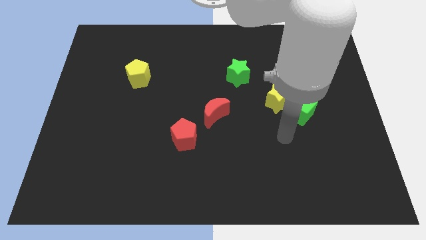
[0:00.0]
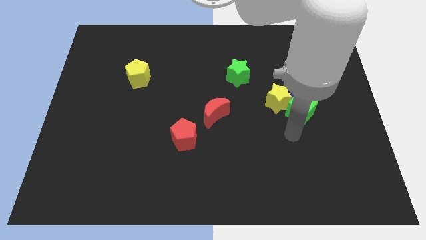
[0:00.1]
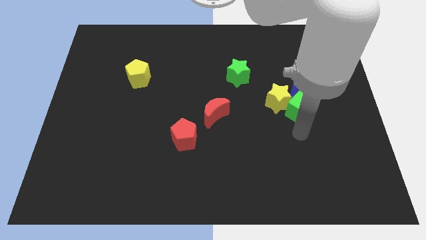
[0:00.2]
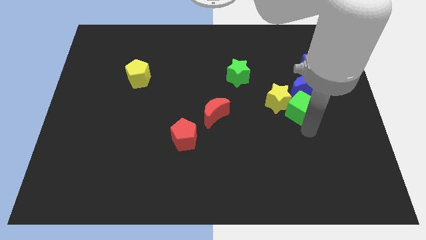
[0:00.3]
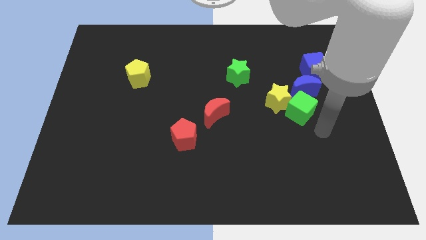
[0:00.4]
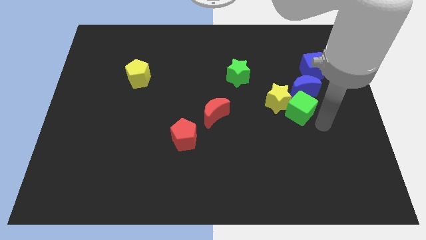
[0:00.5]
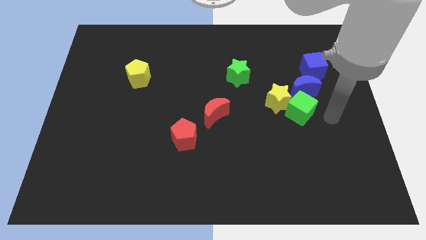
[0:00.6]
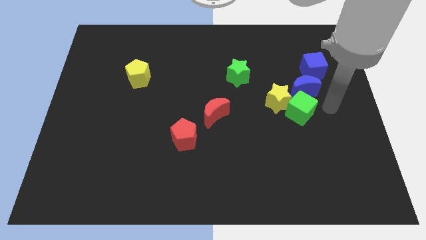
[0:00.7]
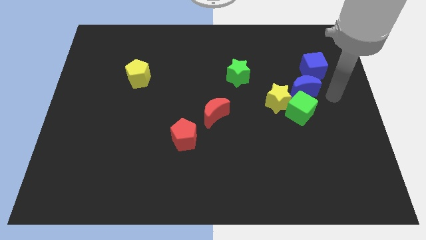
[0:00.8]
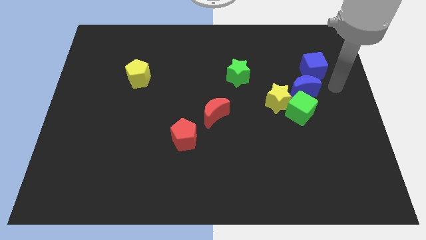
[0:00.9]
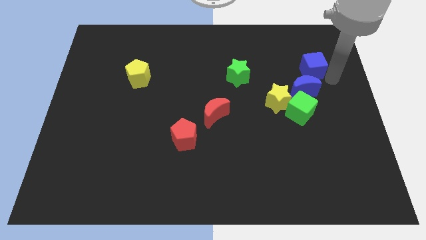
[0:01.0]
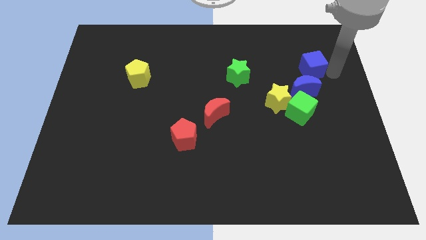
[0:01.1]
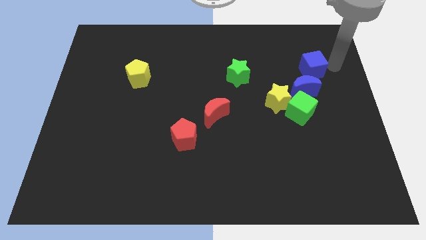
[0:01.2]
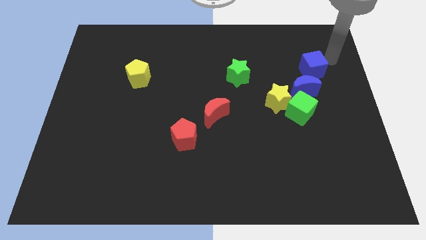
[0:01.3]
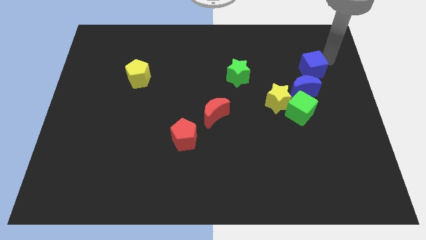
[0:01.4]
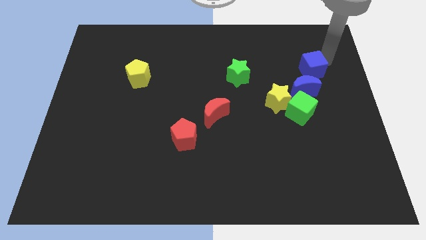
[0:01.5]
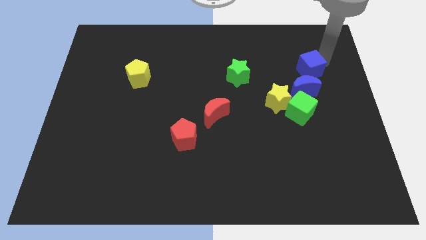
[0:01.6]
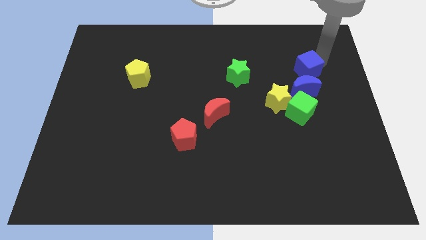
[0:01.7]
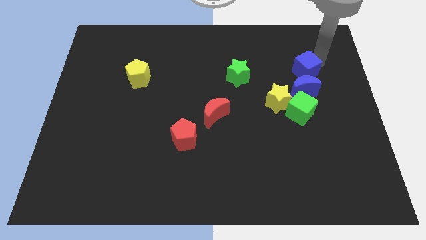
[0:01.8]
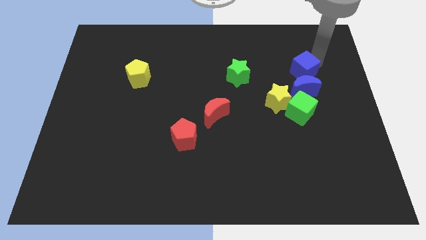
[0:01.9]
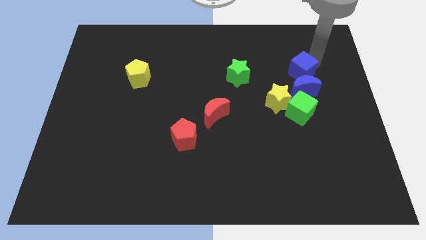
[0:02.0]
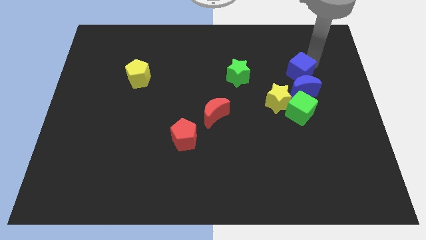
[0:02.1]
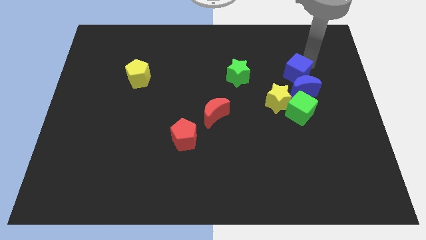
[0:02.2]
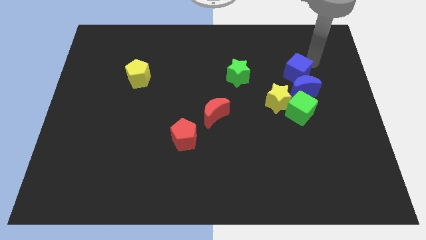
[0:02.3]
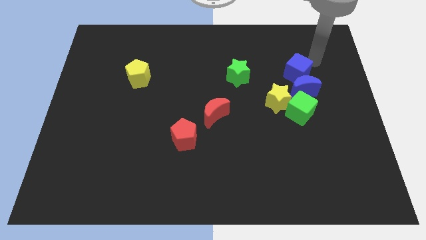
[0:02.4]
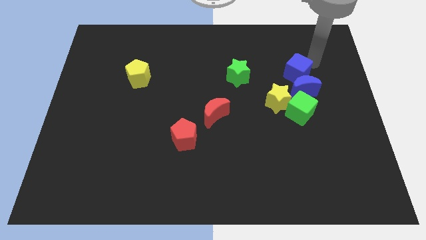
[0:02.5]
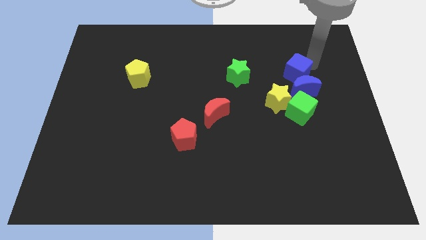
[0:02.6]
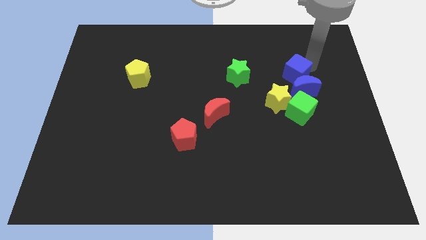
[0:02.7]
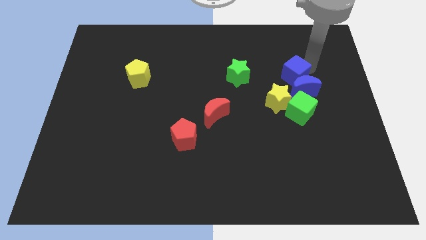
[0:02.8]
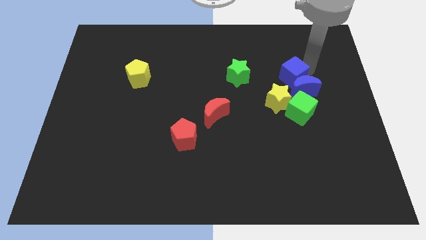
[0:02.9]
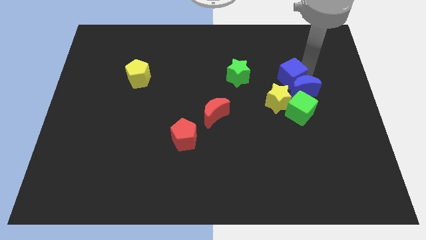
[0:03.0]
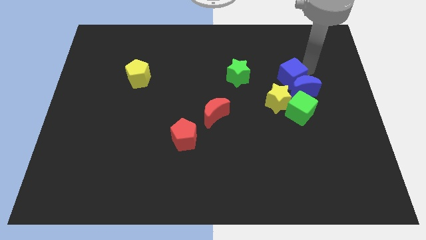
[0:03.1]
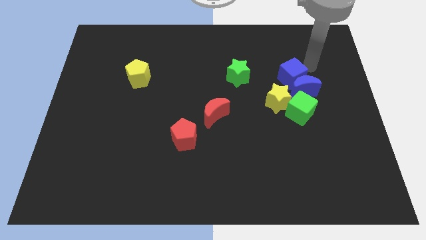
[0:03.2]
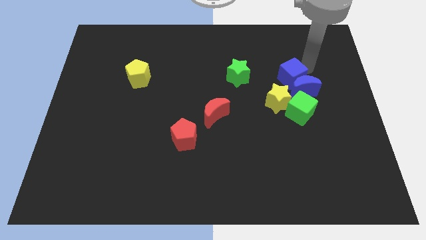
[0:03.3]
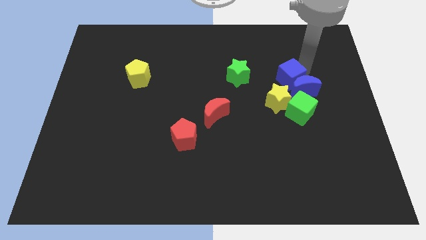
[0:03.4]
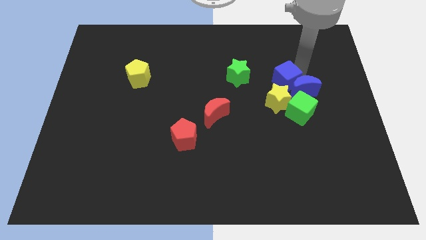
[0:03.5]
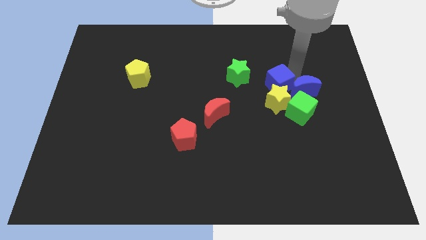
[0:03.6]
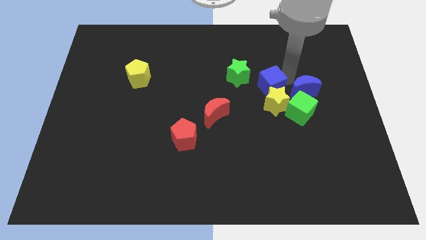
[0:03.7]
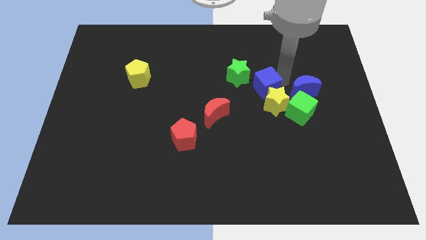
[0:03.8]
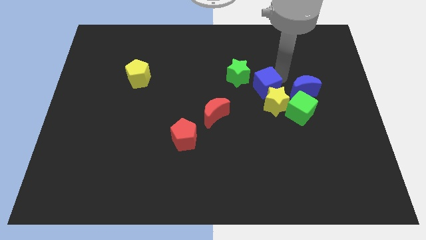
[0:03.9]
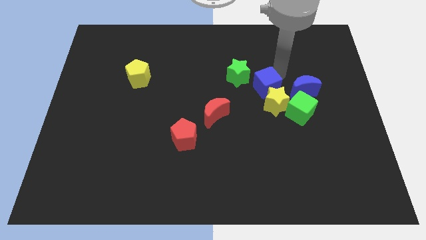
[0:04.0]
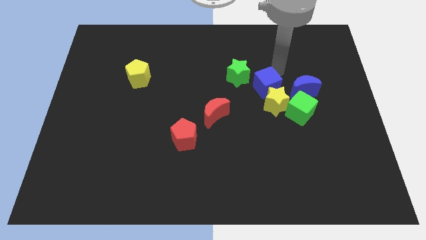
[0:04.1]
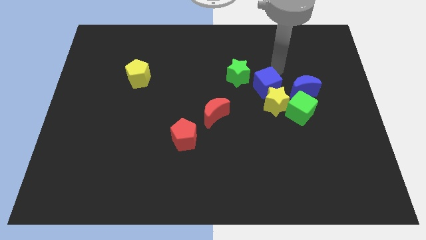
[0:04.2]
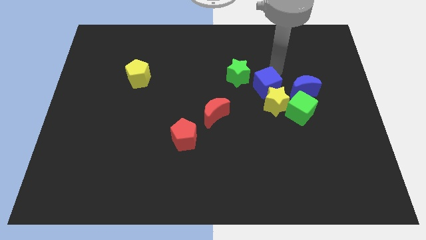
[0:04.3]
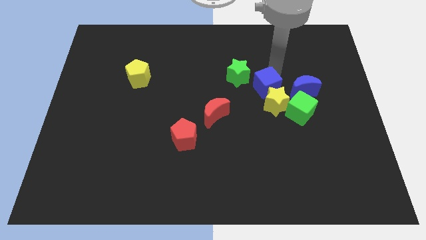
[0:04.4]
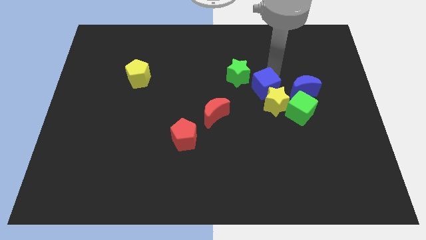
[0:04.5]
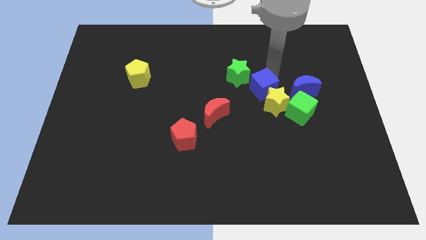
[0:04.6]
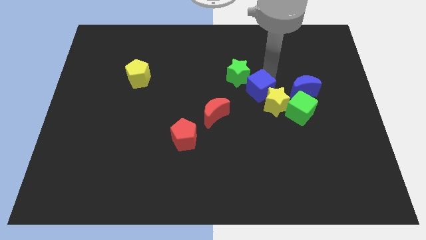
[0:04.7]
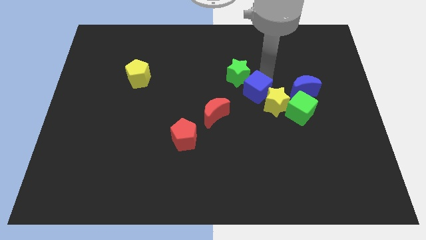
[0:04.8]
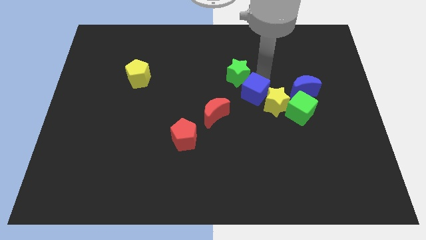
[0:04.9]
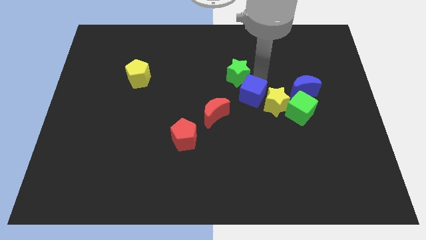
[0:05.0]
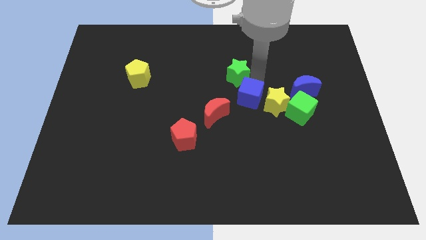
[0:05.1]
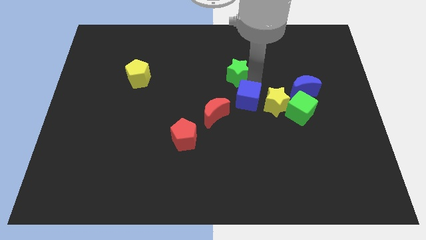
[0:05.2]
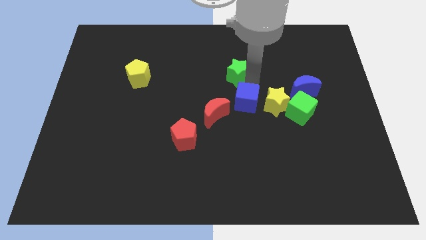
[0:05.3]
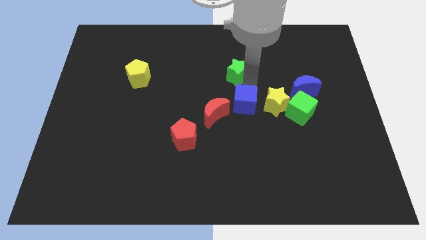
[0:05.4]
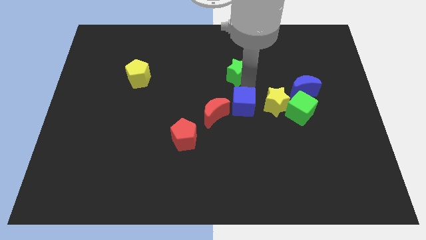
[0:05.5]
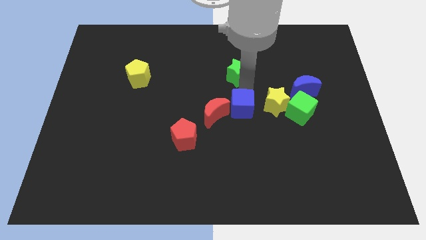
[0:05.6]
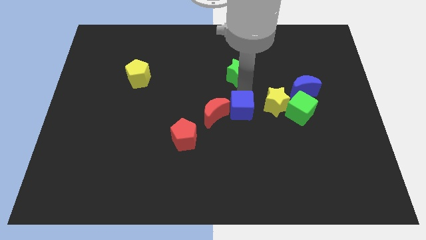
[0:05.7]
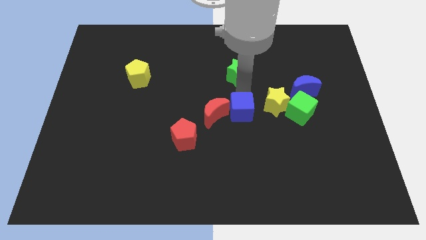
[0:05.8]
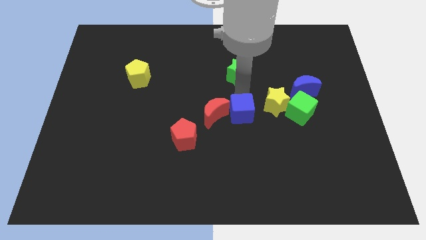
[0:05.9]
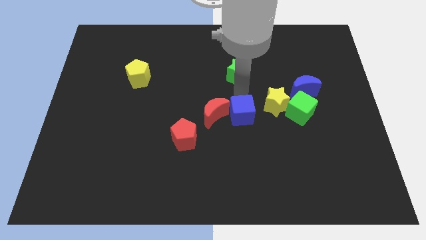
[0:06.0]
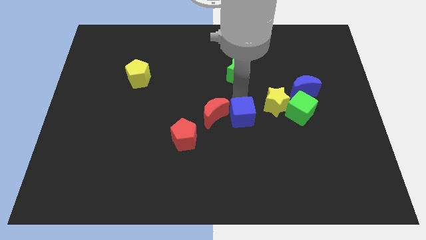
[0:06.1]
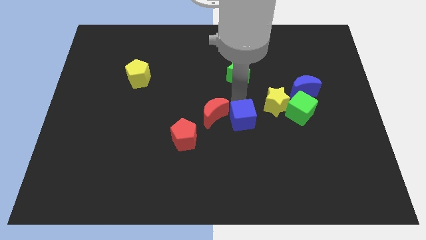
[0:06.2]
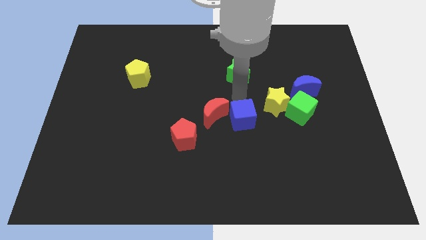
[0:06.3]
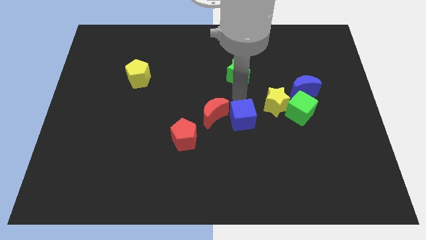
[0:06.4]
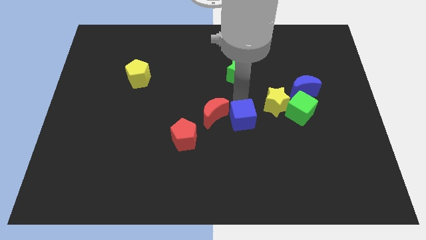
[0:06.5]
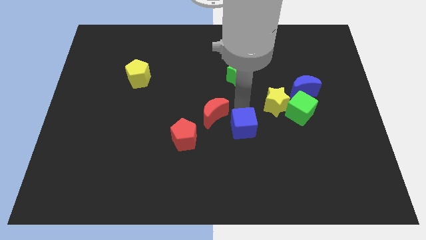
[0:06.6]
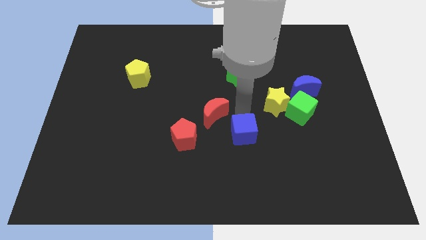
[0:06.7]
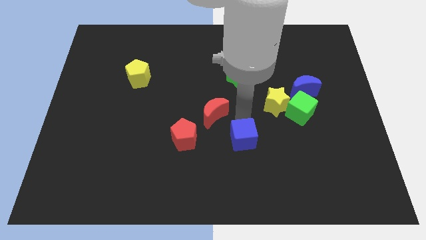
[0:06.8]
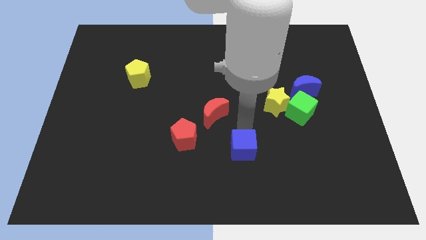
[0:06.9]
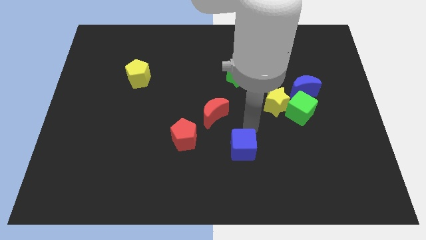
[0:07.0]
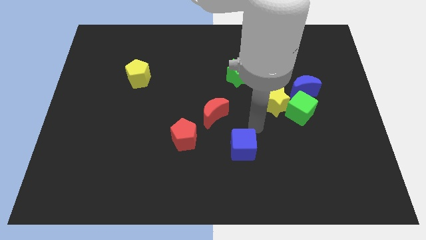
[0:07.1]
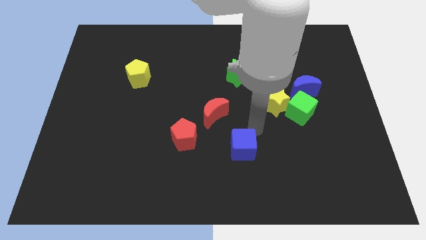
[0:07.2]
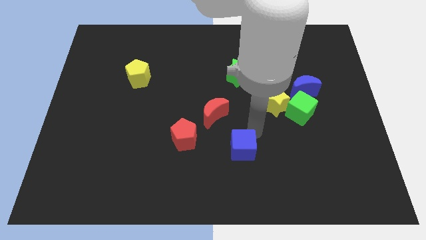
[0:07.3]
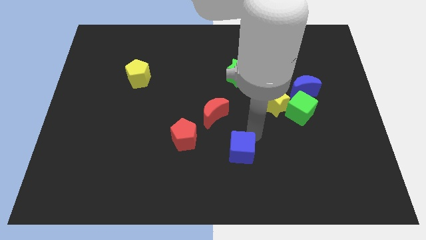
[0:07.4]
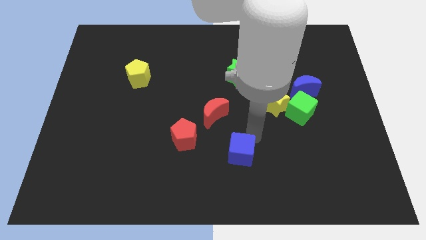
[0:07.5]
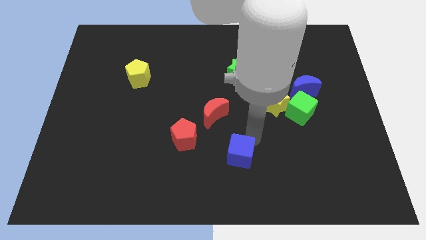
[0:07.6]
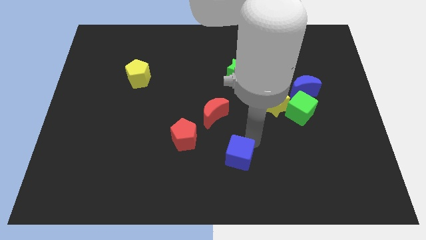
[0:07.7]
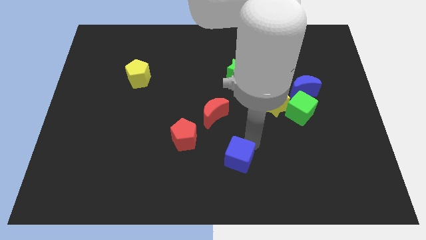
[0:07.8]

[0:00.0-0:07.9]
move the blue cube to the bottom
